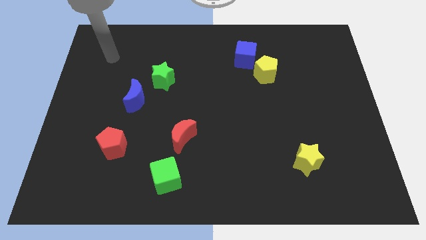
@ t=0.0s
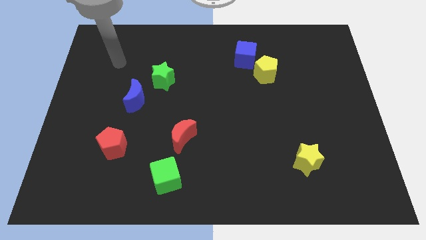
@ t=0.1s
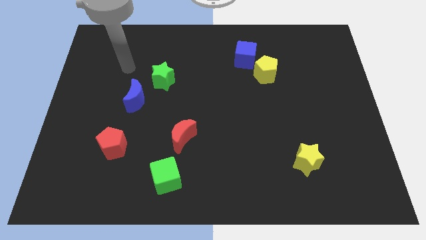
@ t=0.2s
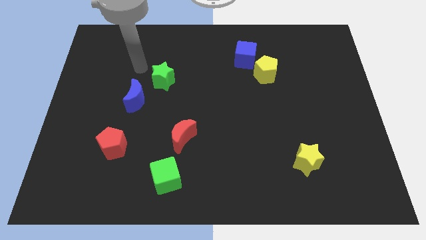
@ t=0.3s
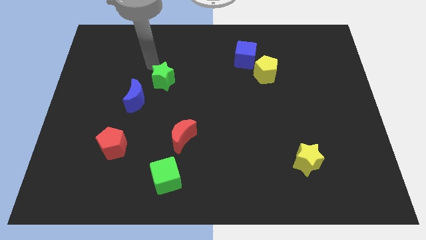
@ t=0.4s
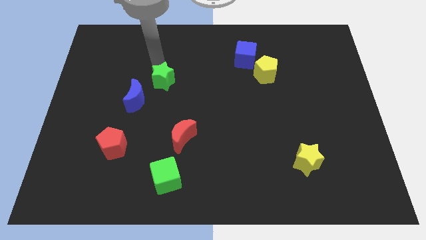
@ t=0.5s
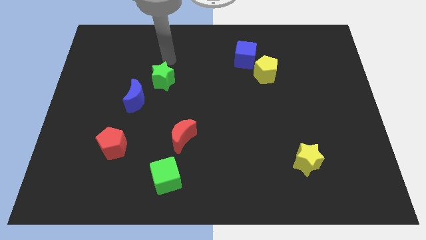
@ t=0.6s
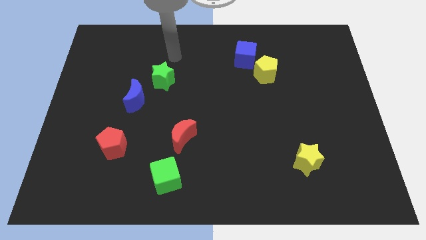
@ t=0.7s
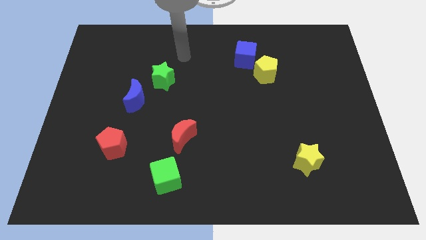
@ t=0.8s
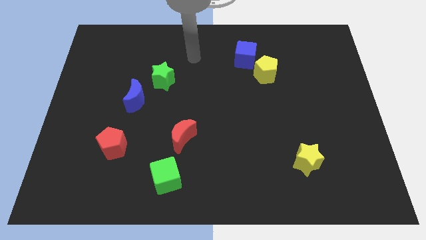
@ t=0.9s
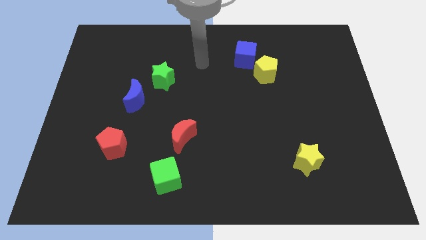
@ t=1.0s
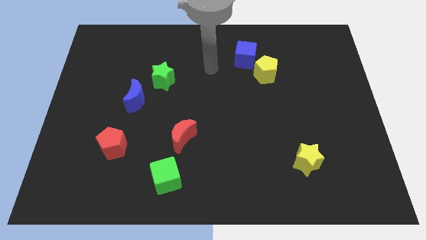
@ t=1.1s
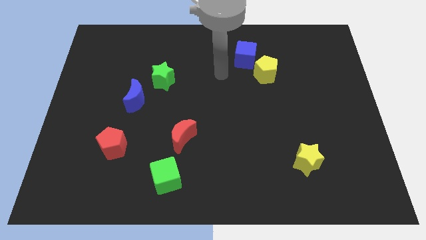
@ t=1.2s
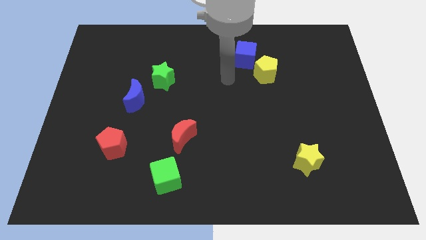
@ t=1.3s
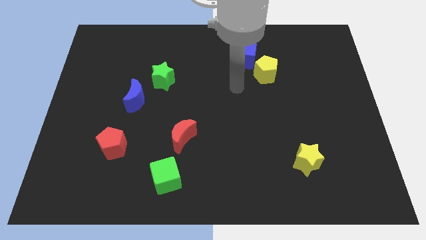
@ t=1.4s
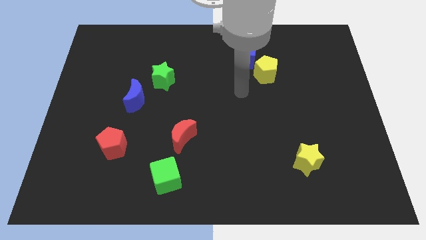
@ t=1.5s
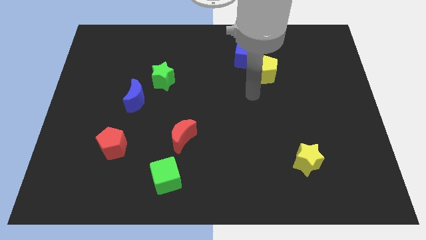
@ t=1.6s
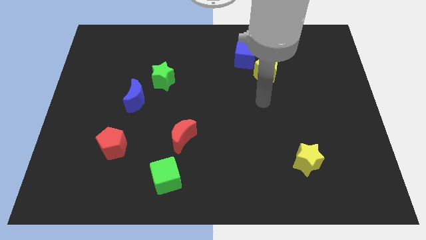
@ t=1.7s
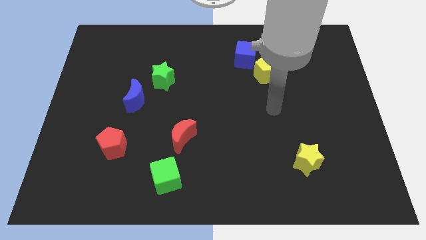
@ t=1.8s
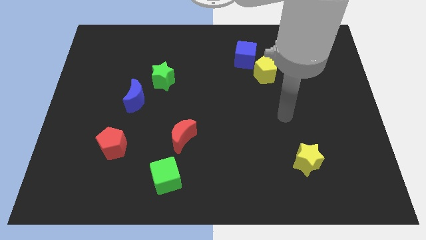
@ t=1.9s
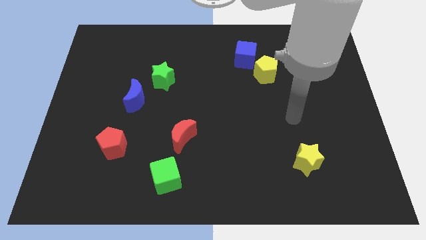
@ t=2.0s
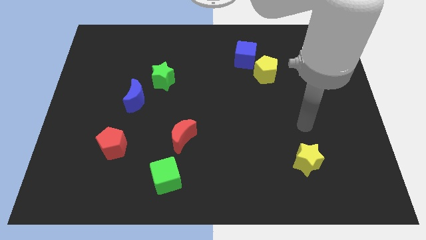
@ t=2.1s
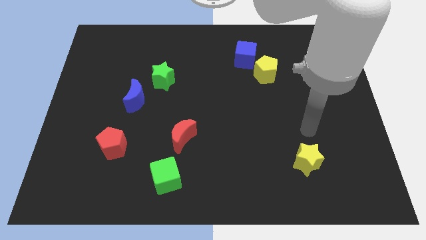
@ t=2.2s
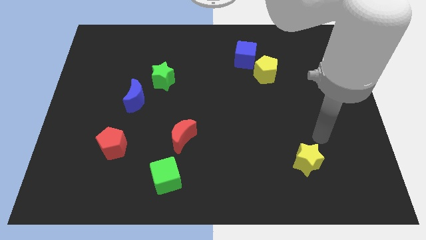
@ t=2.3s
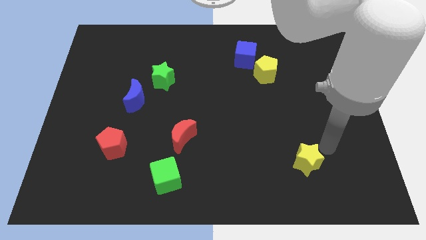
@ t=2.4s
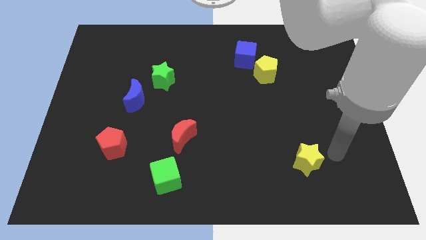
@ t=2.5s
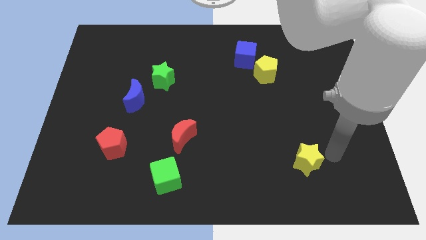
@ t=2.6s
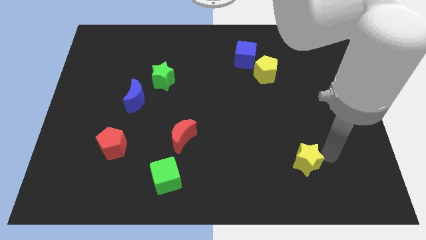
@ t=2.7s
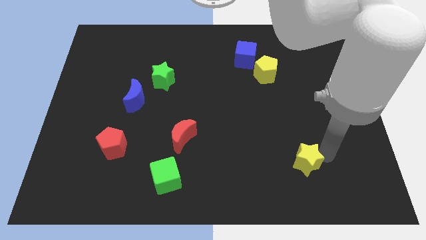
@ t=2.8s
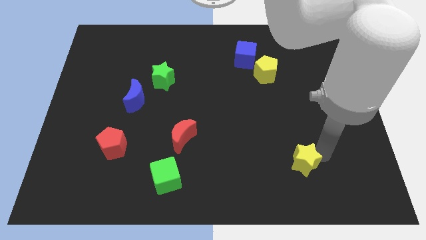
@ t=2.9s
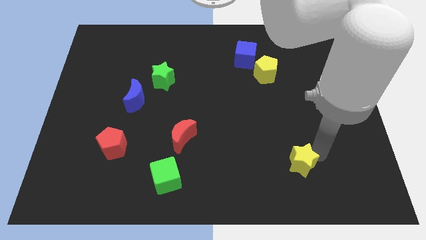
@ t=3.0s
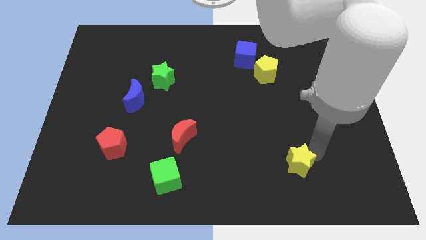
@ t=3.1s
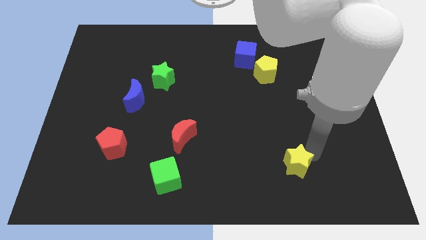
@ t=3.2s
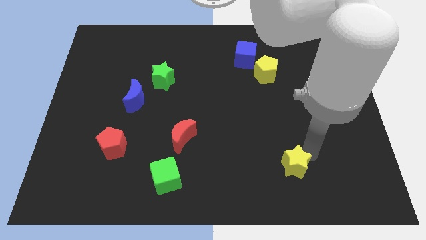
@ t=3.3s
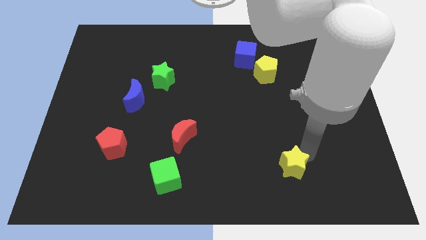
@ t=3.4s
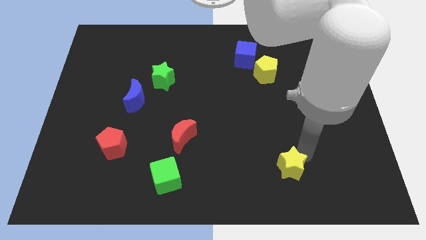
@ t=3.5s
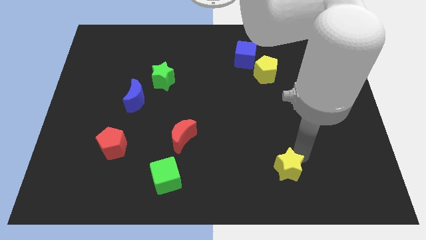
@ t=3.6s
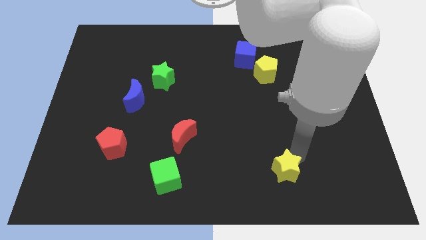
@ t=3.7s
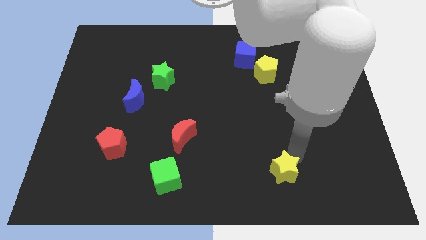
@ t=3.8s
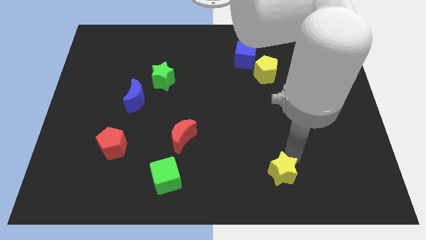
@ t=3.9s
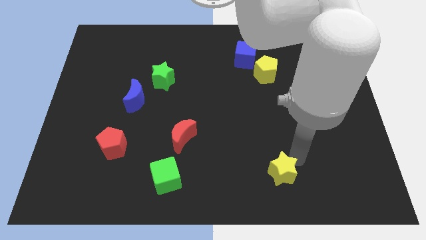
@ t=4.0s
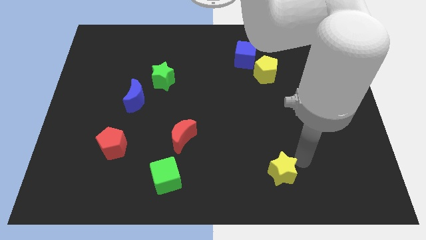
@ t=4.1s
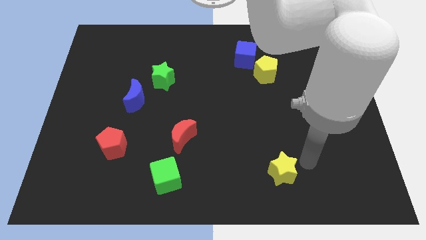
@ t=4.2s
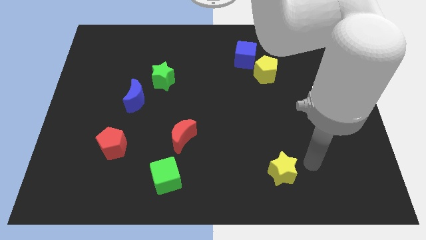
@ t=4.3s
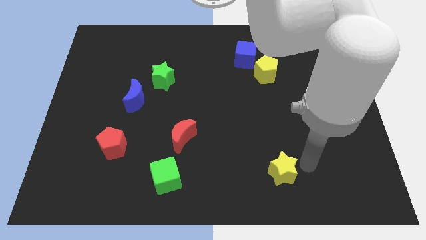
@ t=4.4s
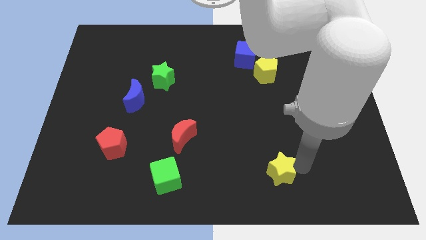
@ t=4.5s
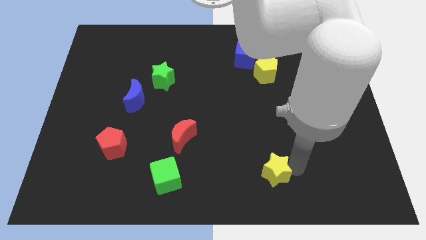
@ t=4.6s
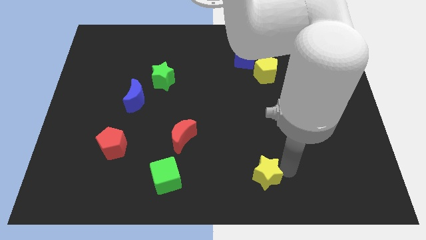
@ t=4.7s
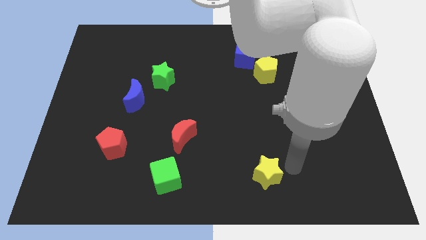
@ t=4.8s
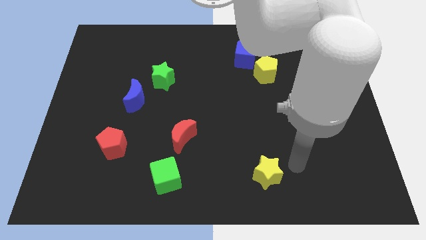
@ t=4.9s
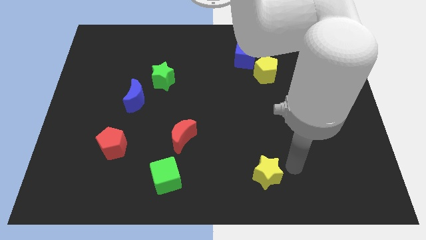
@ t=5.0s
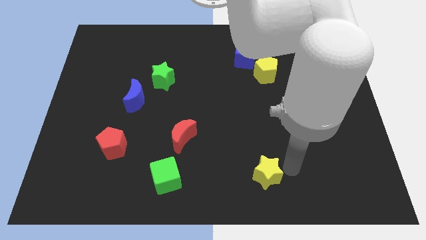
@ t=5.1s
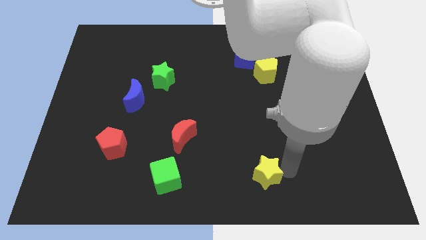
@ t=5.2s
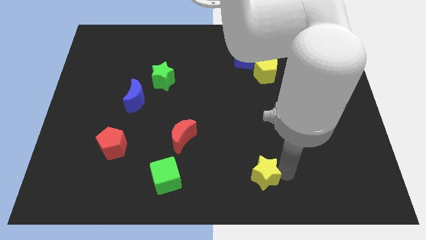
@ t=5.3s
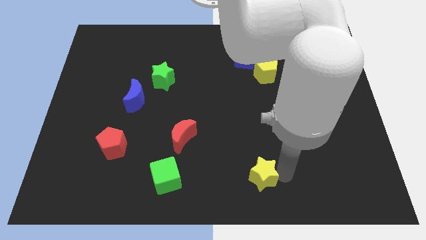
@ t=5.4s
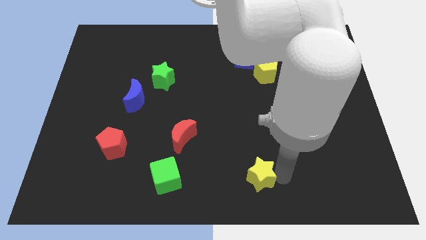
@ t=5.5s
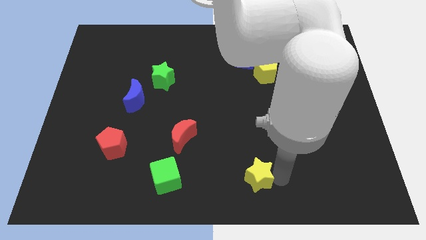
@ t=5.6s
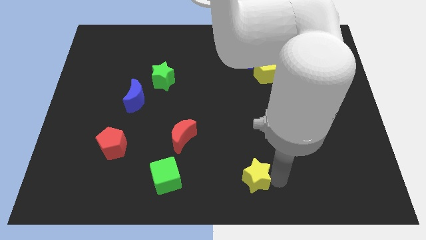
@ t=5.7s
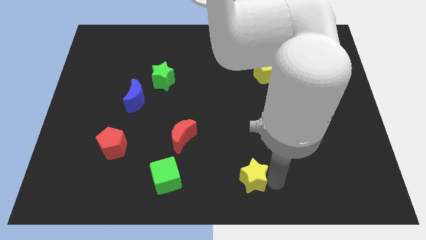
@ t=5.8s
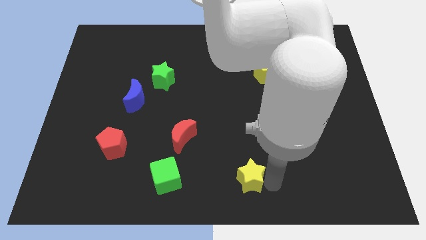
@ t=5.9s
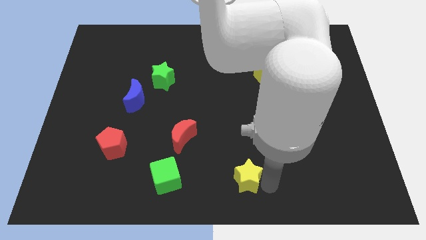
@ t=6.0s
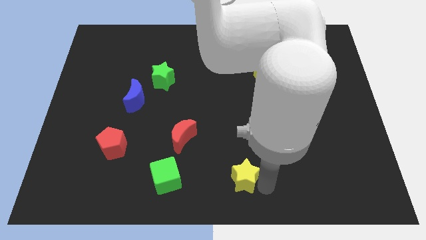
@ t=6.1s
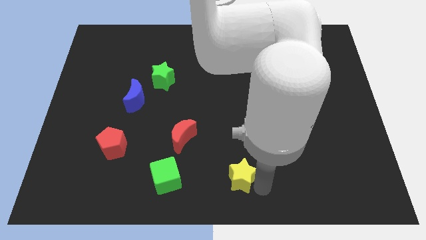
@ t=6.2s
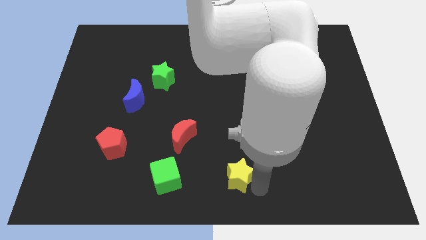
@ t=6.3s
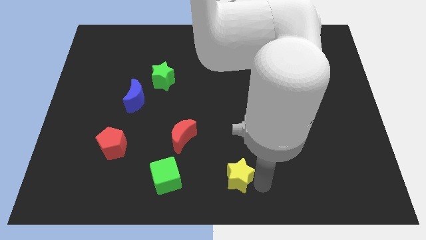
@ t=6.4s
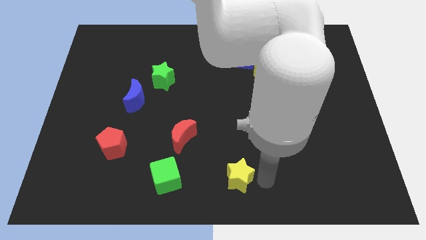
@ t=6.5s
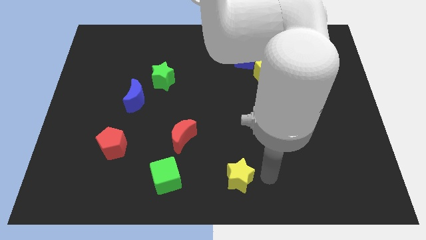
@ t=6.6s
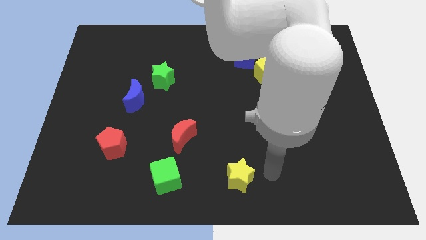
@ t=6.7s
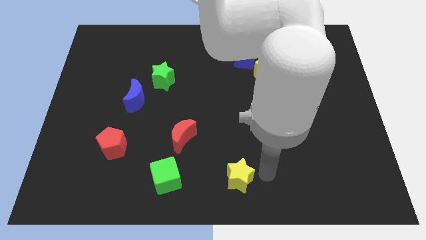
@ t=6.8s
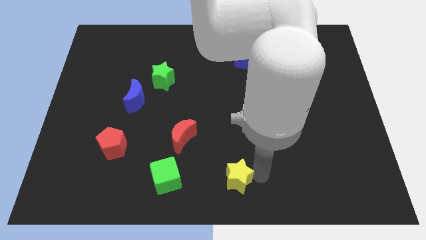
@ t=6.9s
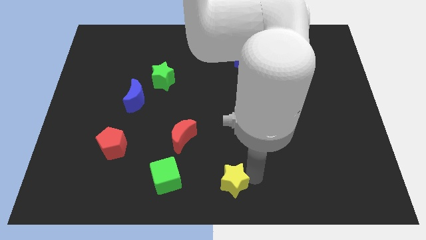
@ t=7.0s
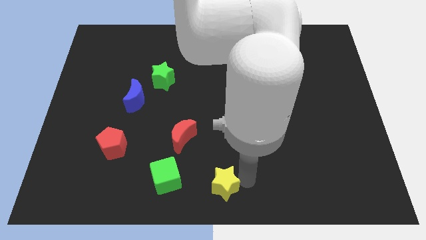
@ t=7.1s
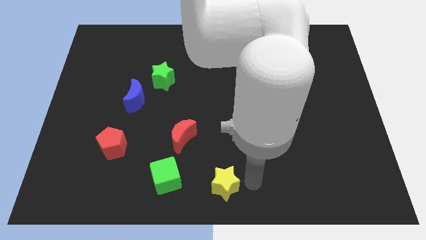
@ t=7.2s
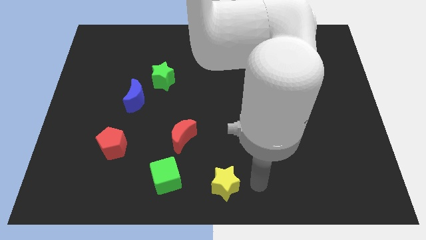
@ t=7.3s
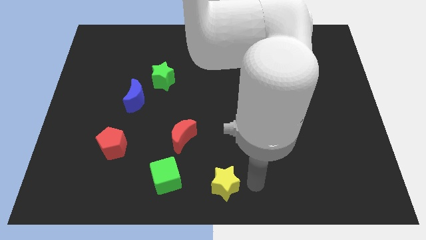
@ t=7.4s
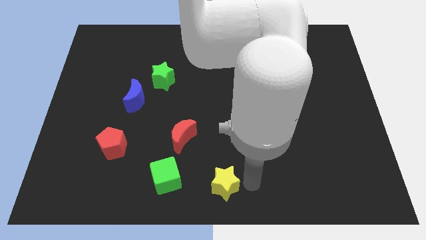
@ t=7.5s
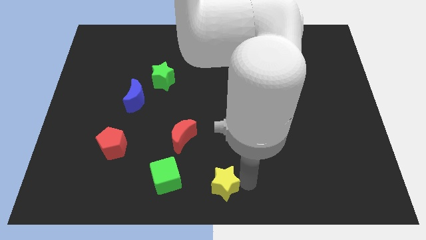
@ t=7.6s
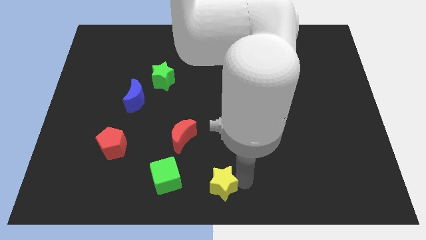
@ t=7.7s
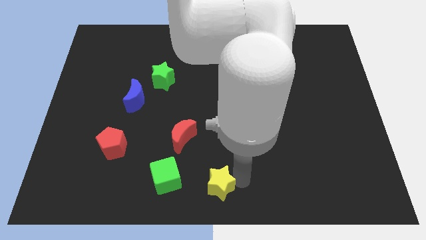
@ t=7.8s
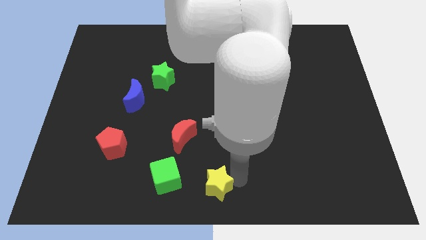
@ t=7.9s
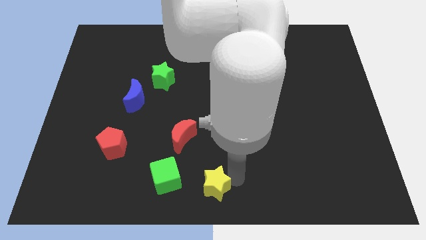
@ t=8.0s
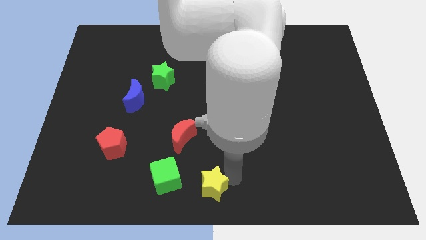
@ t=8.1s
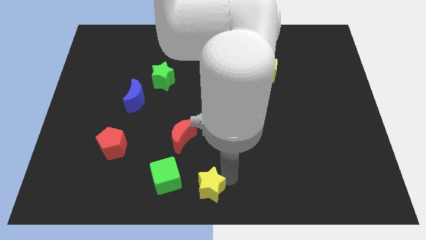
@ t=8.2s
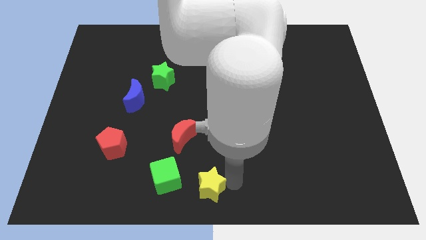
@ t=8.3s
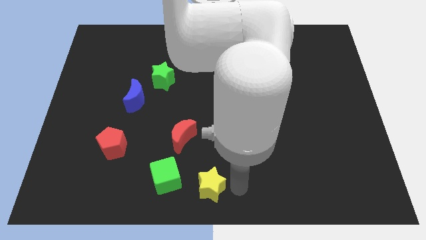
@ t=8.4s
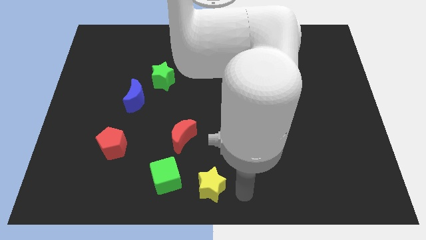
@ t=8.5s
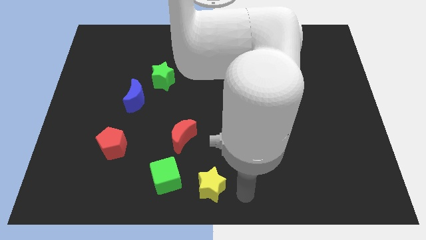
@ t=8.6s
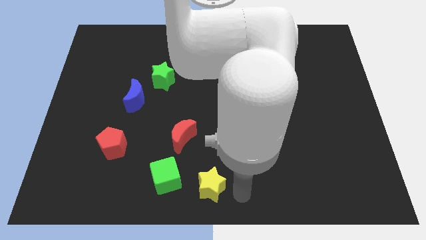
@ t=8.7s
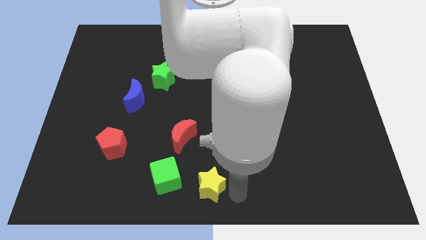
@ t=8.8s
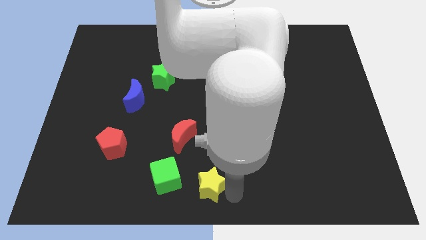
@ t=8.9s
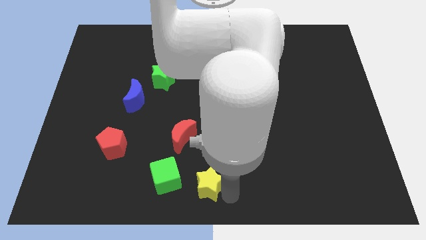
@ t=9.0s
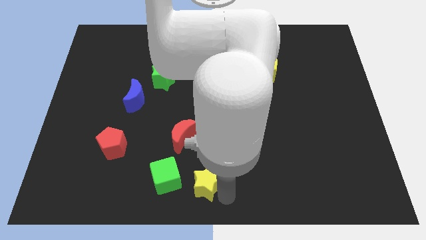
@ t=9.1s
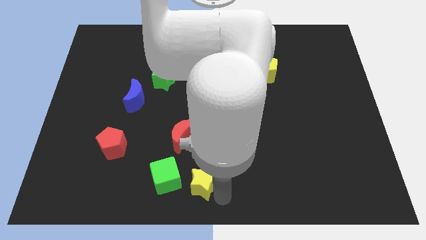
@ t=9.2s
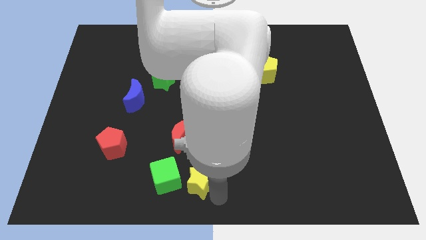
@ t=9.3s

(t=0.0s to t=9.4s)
move the yellow star to the bottom of the red moon
